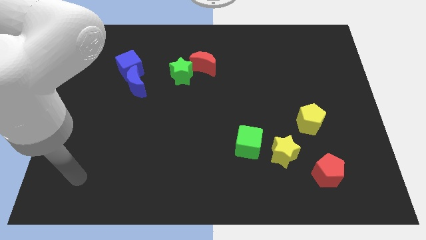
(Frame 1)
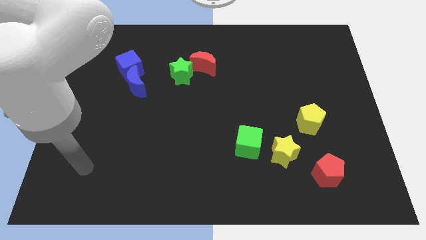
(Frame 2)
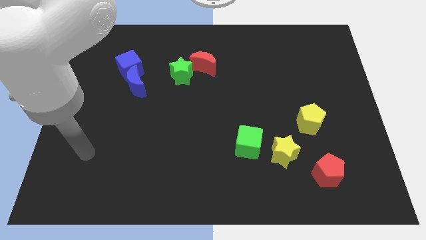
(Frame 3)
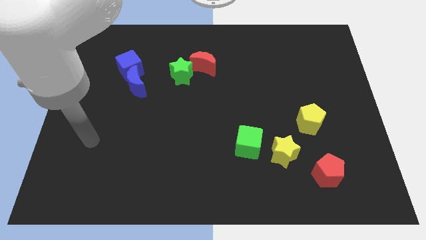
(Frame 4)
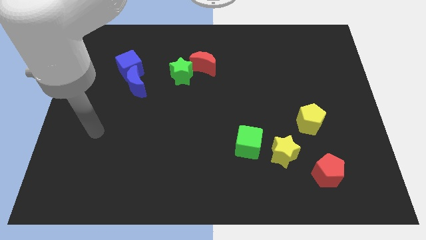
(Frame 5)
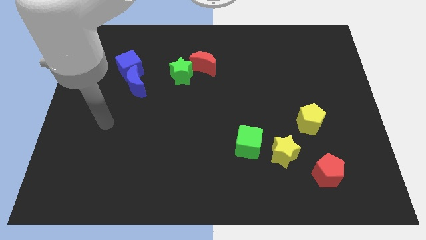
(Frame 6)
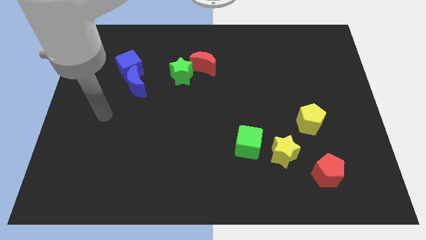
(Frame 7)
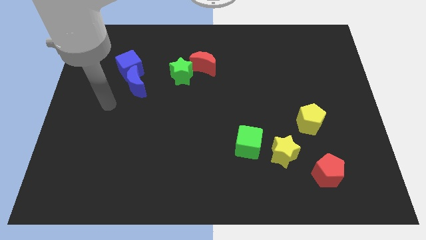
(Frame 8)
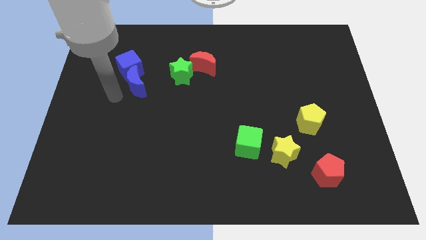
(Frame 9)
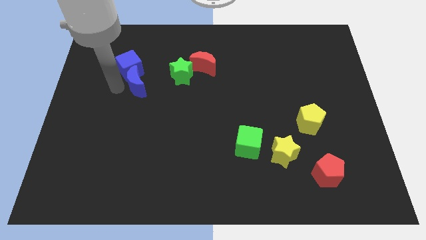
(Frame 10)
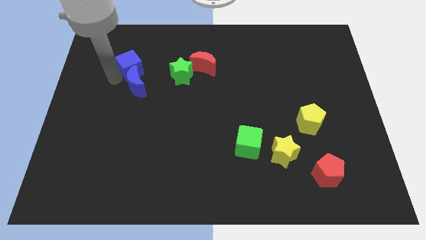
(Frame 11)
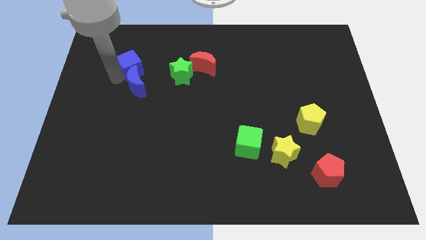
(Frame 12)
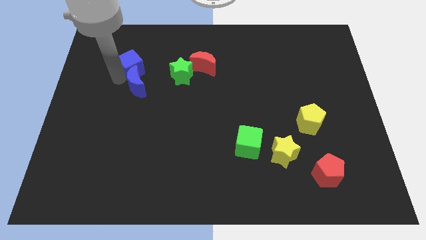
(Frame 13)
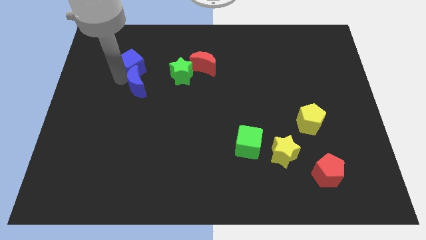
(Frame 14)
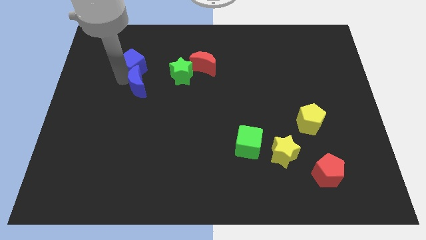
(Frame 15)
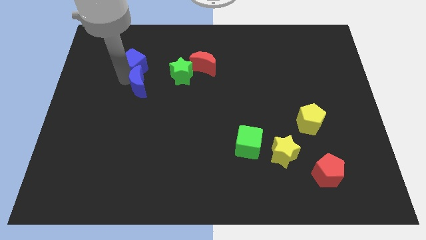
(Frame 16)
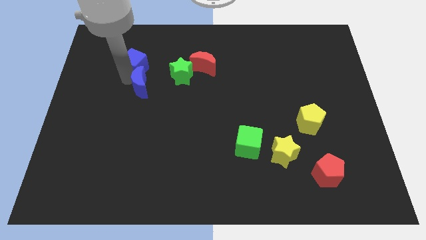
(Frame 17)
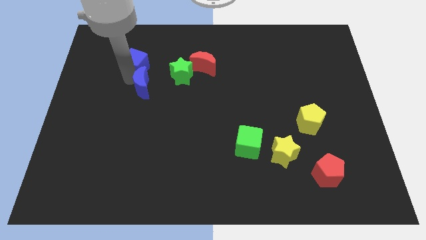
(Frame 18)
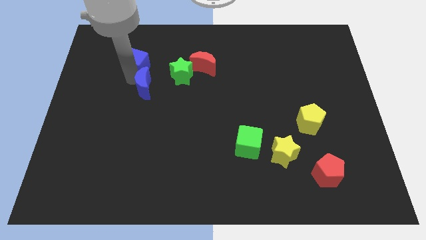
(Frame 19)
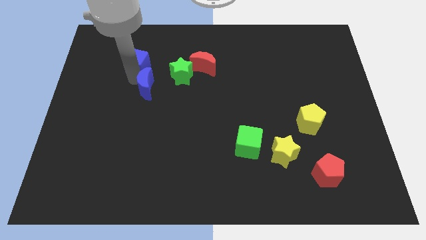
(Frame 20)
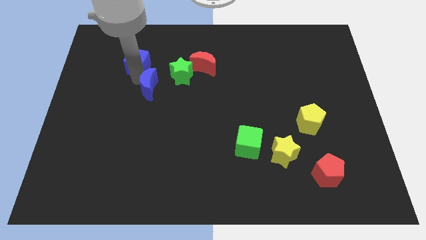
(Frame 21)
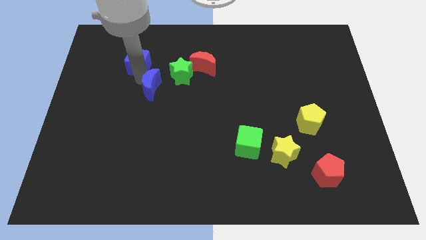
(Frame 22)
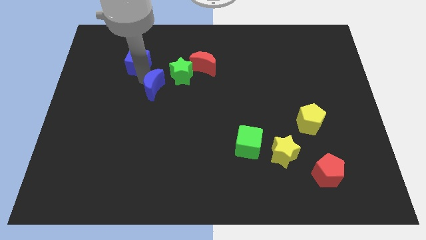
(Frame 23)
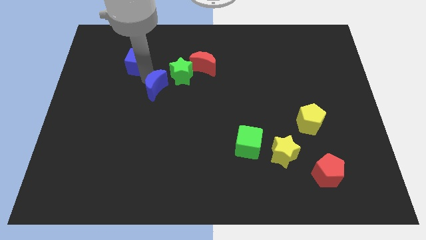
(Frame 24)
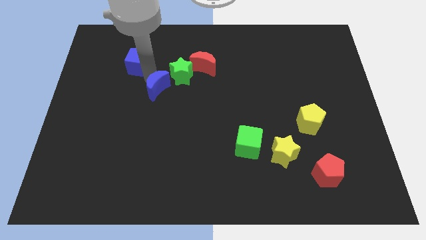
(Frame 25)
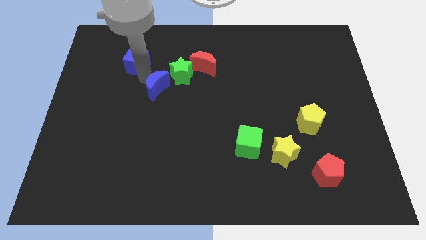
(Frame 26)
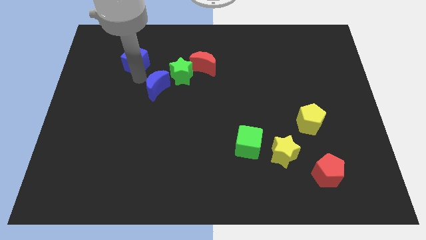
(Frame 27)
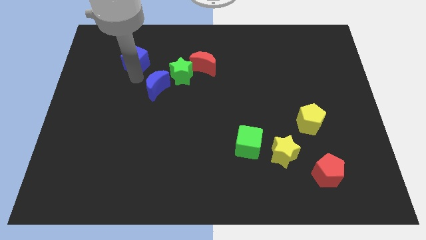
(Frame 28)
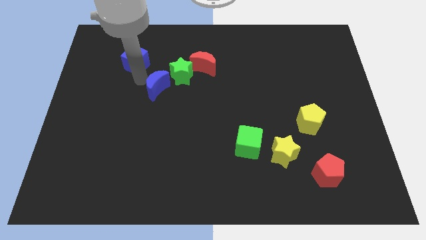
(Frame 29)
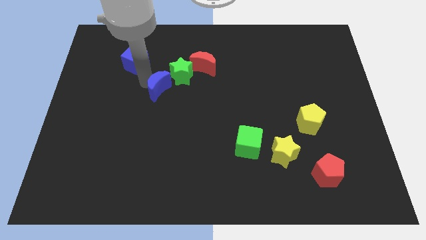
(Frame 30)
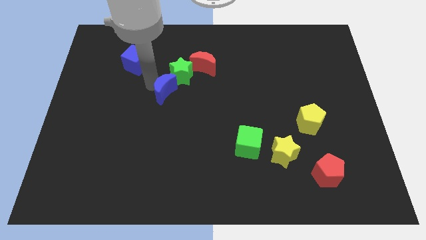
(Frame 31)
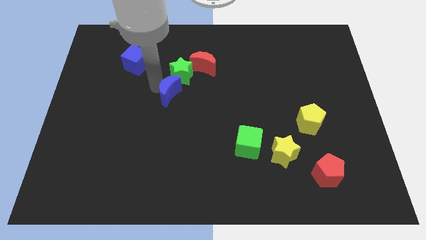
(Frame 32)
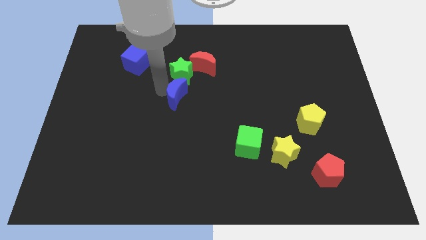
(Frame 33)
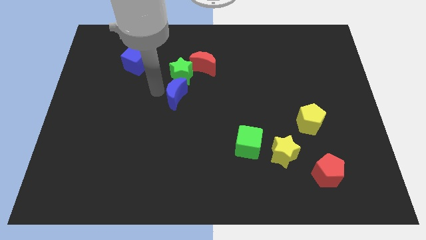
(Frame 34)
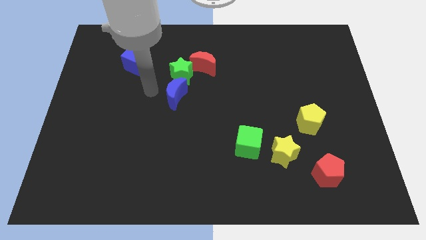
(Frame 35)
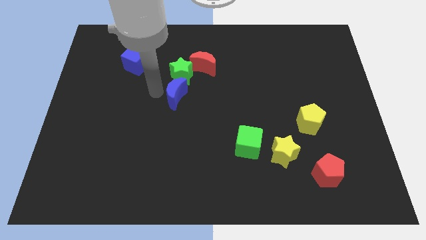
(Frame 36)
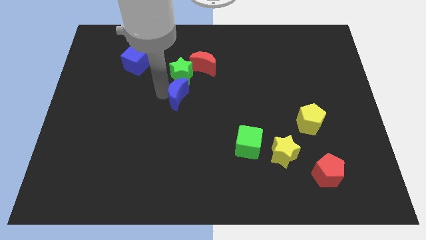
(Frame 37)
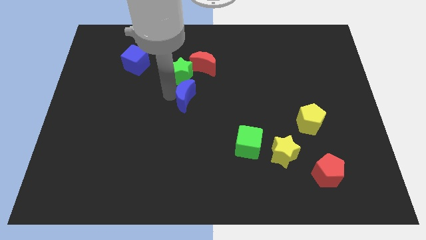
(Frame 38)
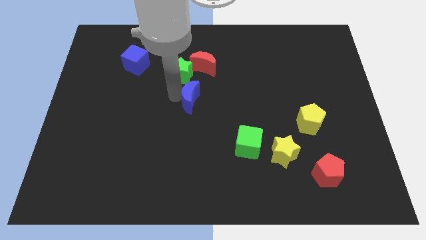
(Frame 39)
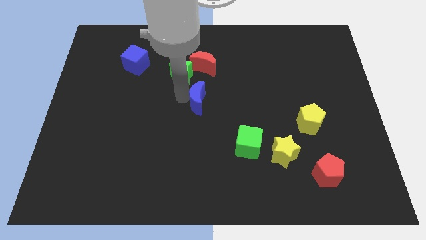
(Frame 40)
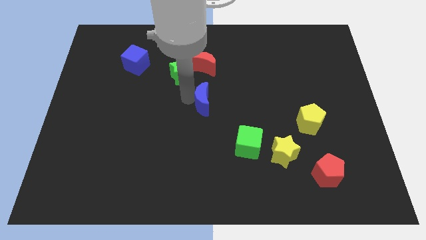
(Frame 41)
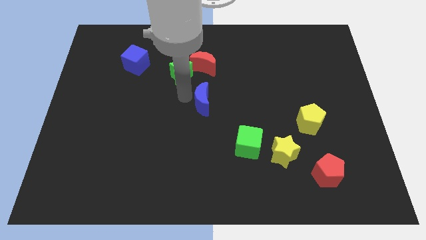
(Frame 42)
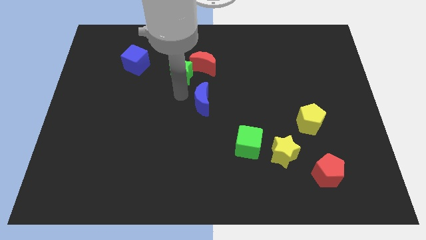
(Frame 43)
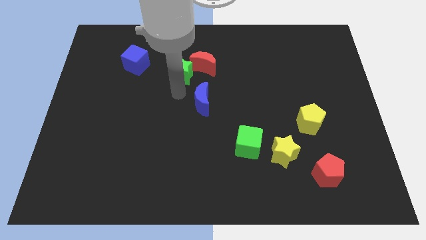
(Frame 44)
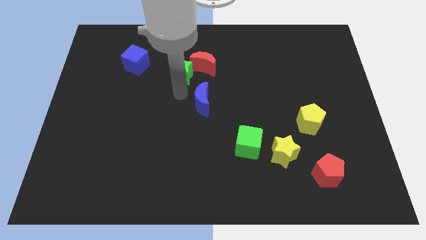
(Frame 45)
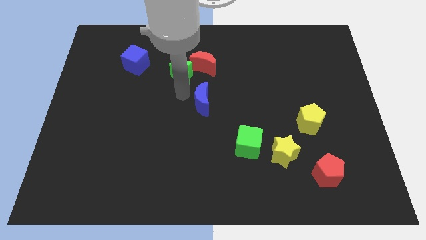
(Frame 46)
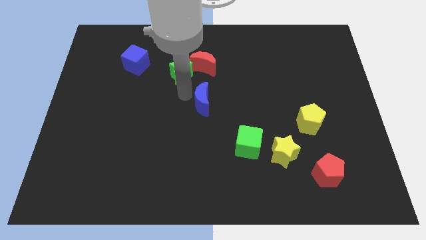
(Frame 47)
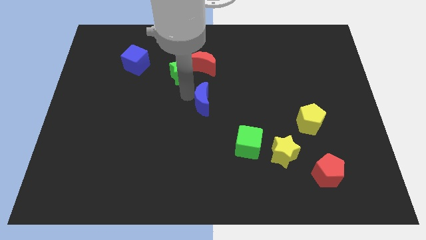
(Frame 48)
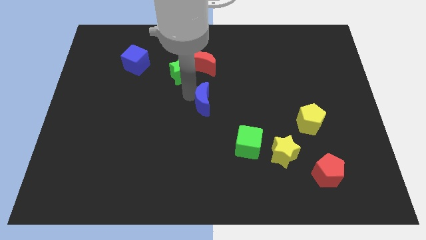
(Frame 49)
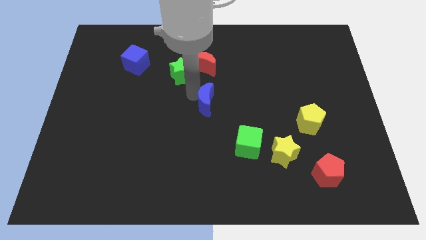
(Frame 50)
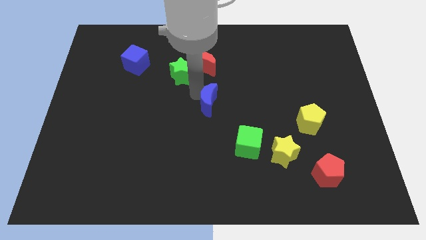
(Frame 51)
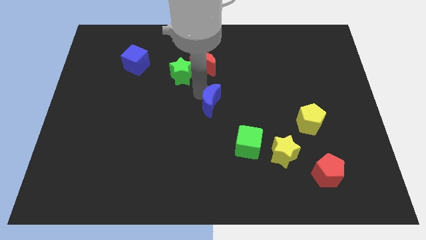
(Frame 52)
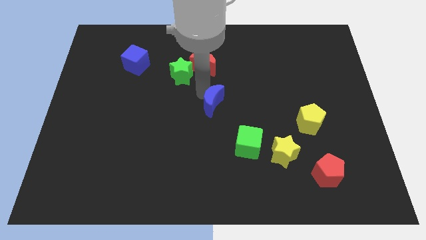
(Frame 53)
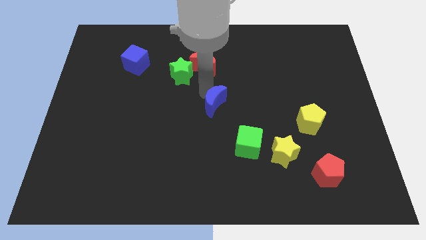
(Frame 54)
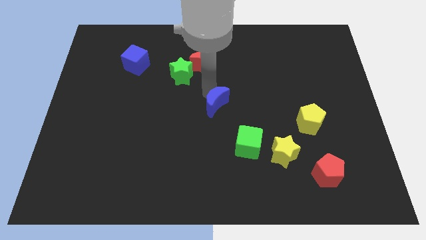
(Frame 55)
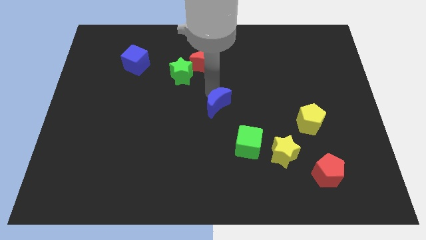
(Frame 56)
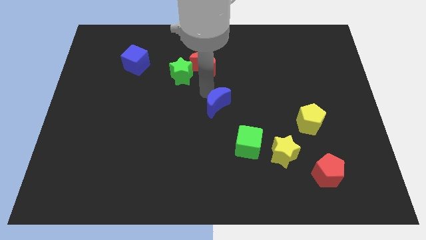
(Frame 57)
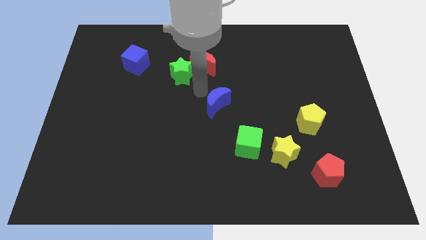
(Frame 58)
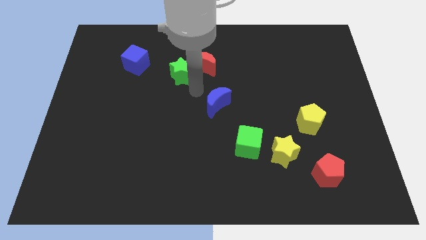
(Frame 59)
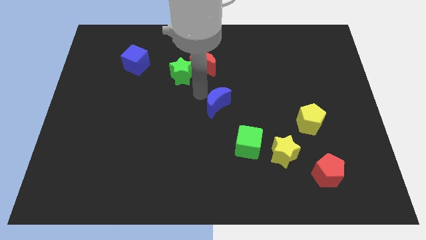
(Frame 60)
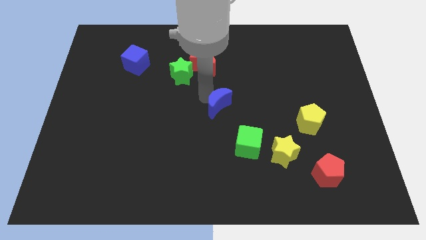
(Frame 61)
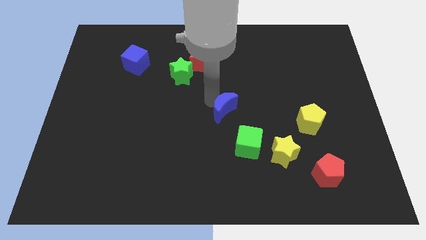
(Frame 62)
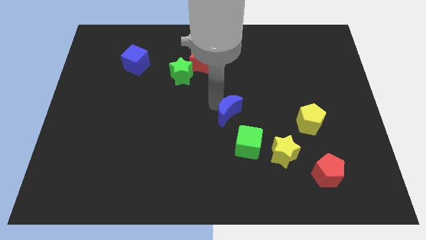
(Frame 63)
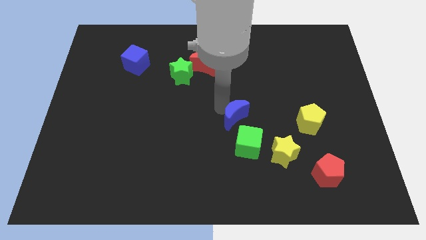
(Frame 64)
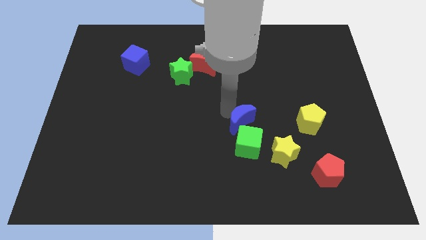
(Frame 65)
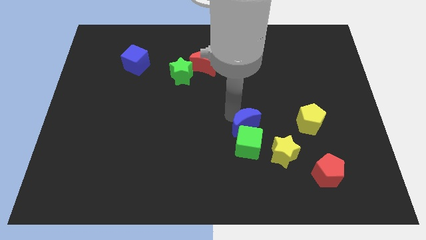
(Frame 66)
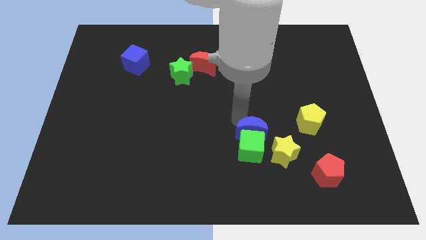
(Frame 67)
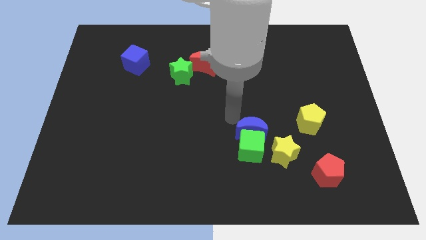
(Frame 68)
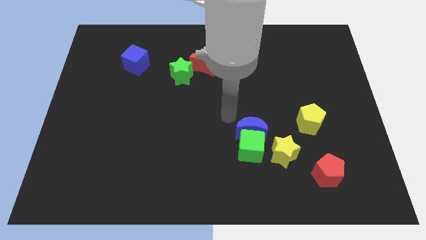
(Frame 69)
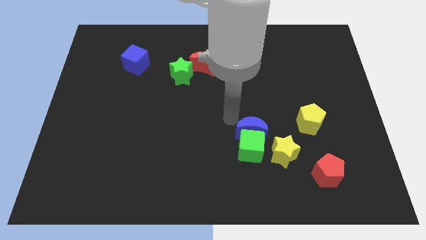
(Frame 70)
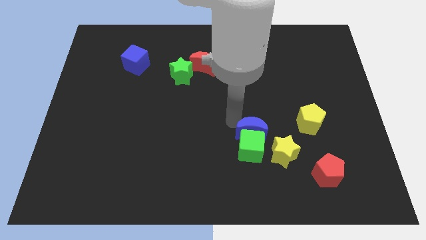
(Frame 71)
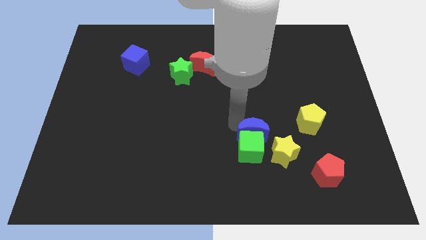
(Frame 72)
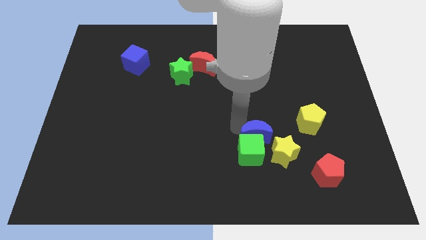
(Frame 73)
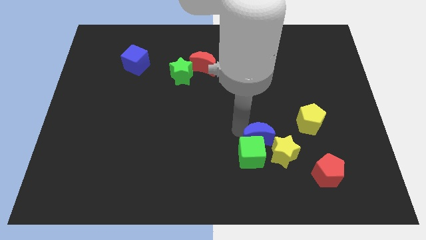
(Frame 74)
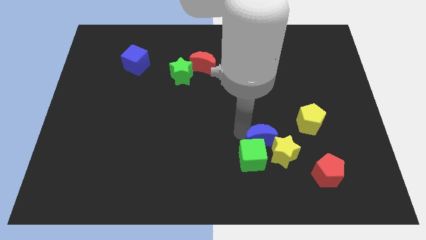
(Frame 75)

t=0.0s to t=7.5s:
slide the blue moon close to the yellow star

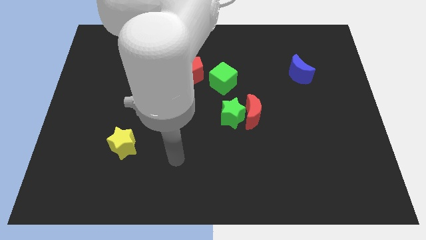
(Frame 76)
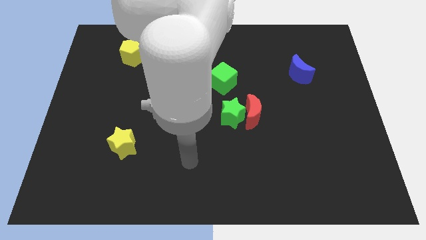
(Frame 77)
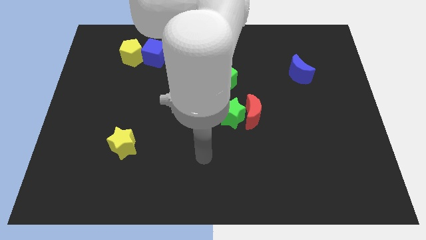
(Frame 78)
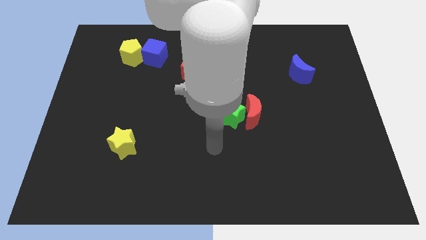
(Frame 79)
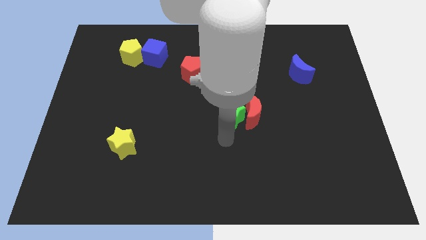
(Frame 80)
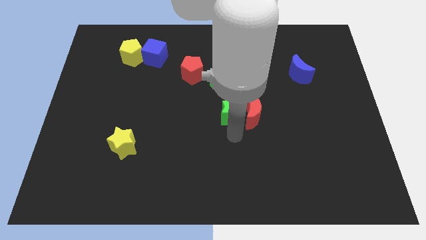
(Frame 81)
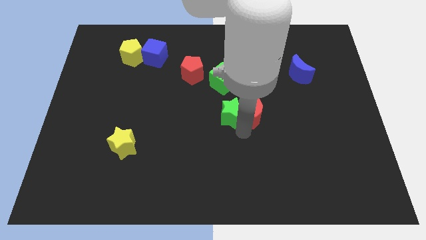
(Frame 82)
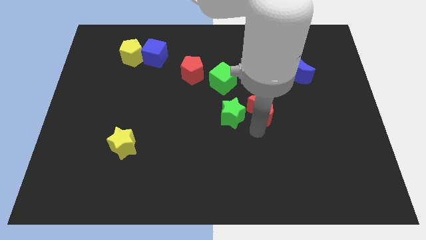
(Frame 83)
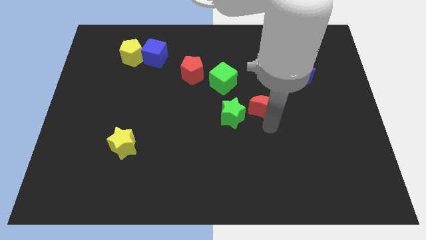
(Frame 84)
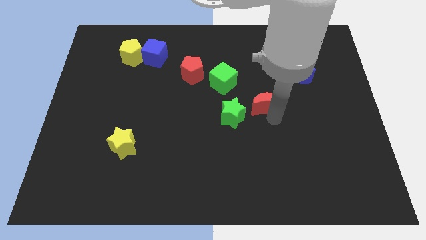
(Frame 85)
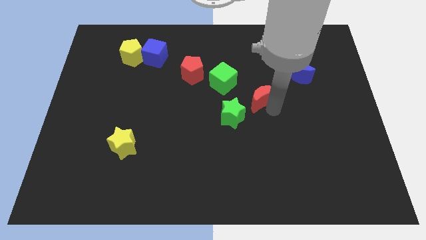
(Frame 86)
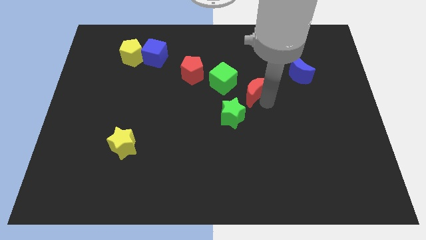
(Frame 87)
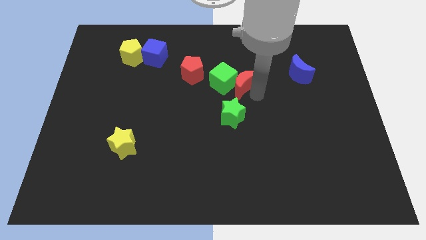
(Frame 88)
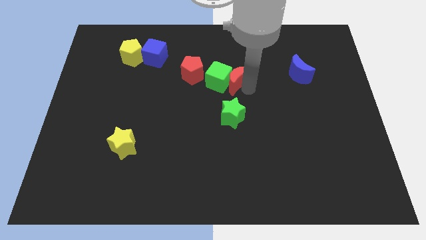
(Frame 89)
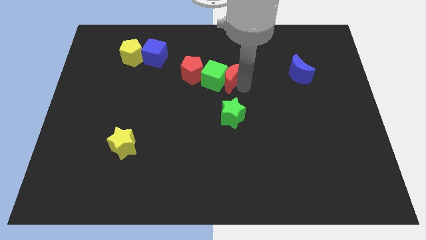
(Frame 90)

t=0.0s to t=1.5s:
slide the green cube to the red pentagon
